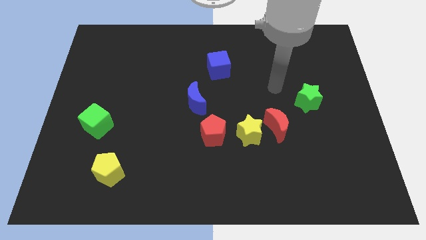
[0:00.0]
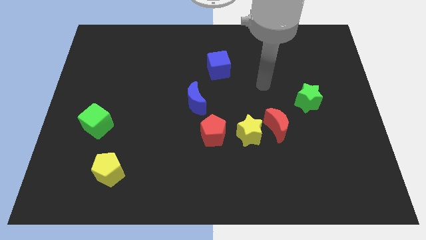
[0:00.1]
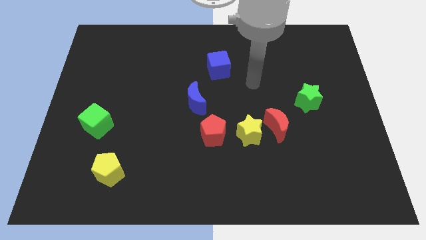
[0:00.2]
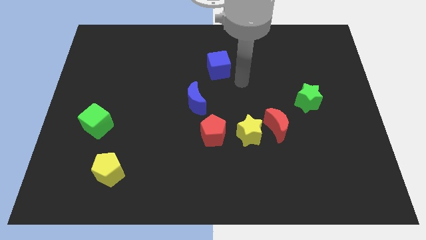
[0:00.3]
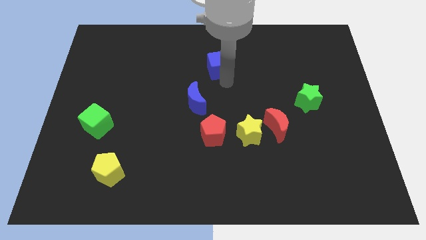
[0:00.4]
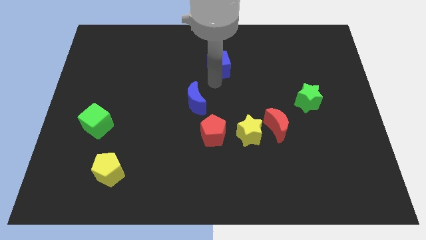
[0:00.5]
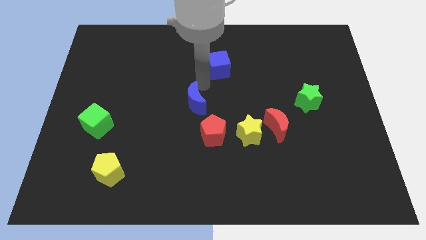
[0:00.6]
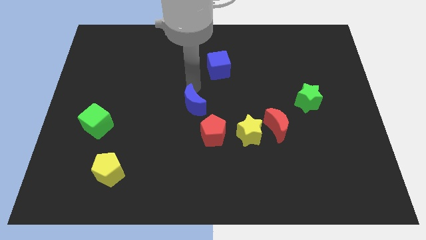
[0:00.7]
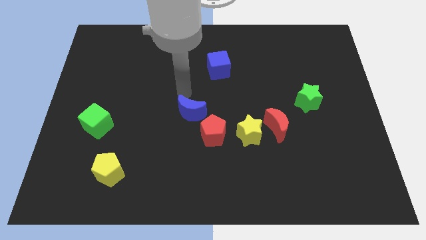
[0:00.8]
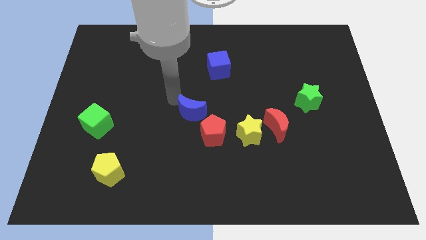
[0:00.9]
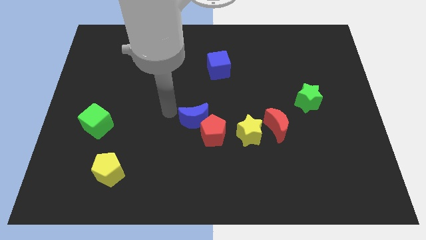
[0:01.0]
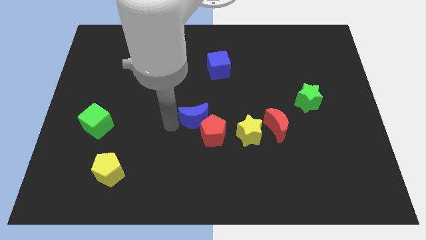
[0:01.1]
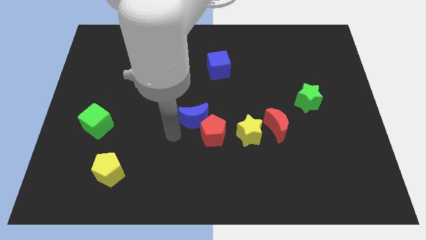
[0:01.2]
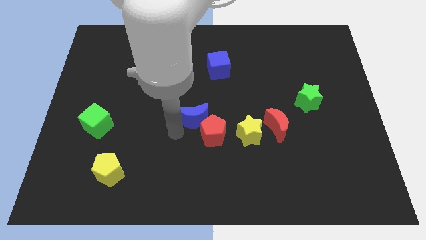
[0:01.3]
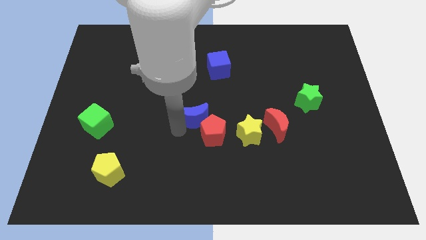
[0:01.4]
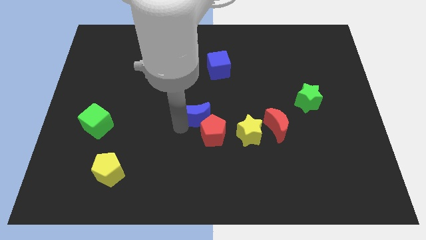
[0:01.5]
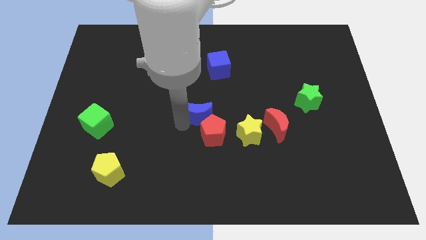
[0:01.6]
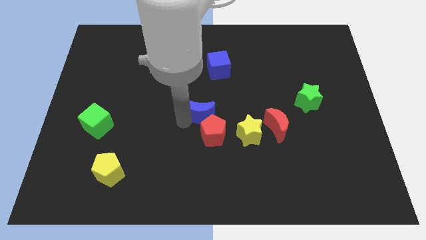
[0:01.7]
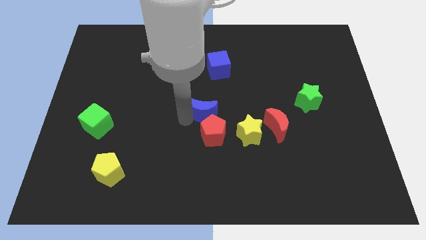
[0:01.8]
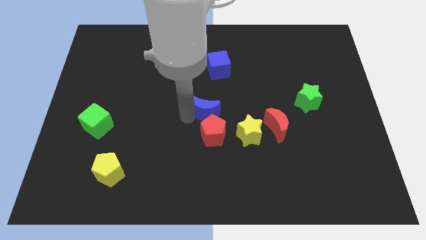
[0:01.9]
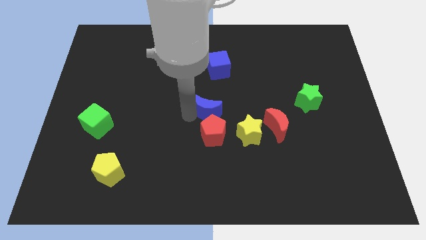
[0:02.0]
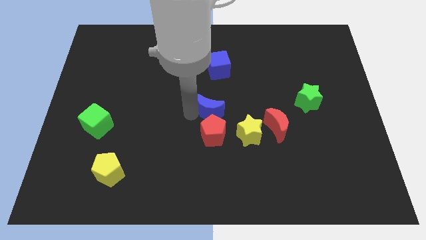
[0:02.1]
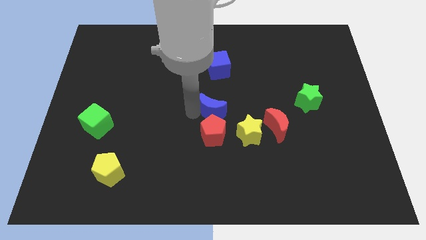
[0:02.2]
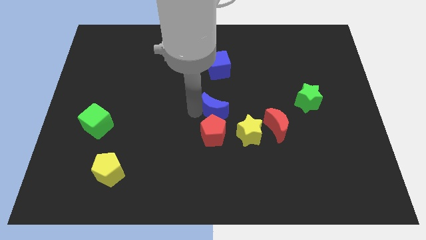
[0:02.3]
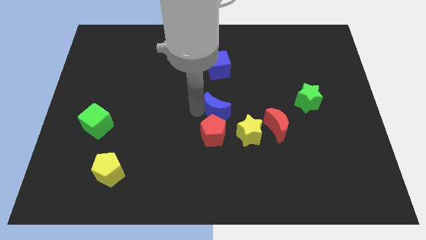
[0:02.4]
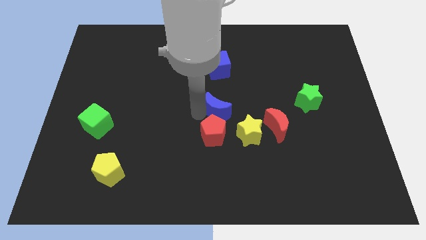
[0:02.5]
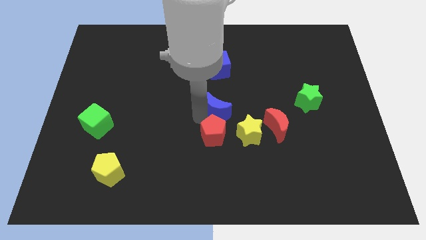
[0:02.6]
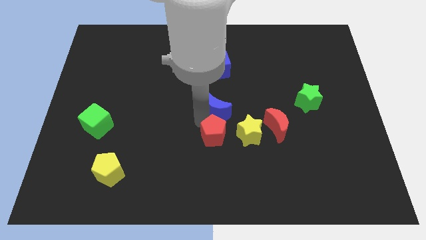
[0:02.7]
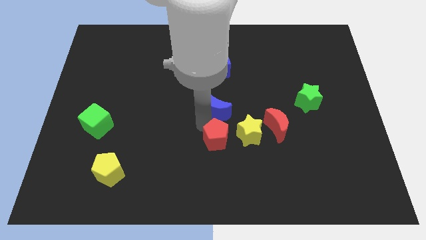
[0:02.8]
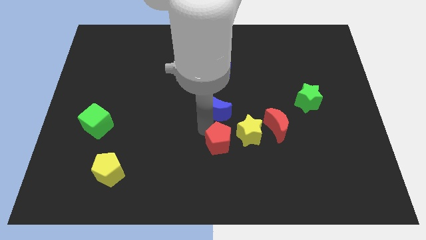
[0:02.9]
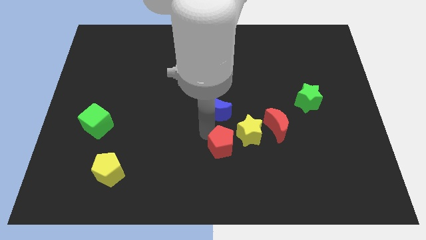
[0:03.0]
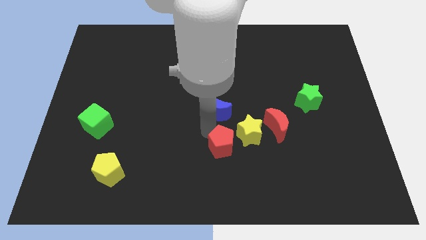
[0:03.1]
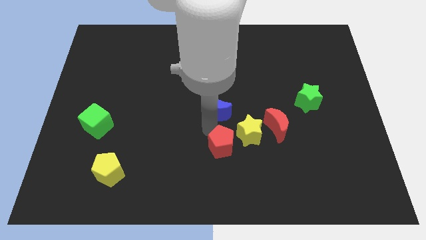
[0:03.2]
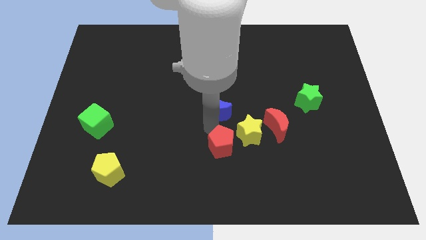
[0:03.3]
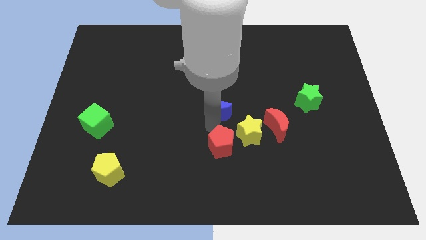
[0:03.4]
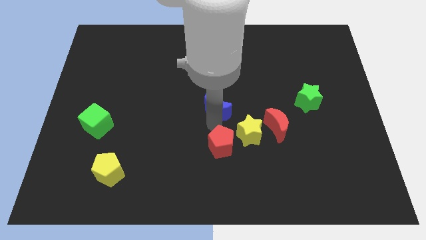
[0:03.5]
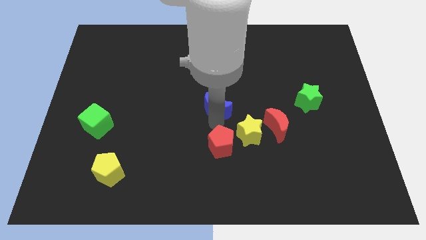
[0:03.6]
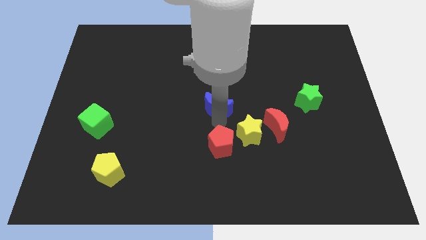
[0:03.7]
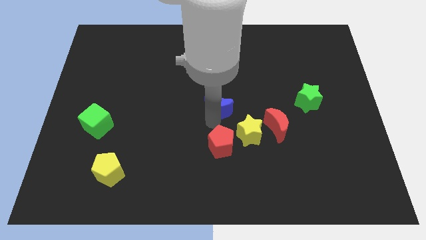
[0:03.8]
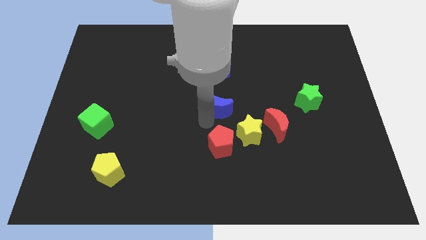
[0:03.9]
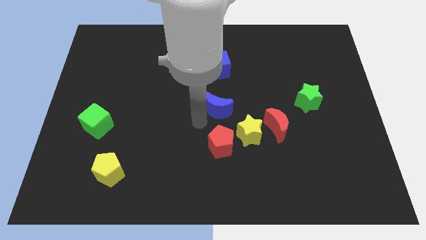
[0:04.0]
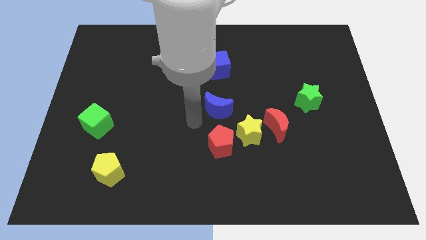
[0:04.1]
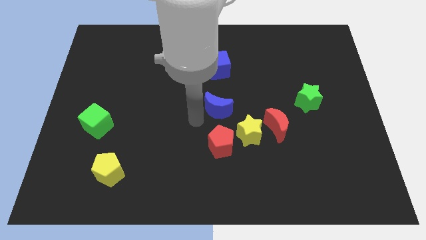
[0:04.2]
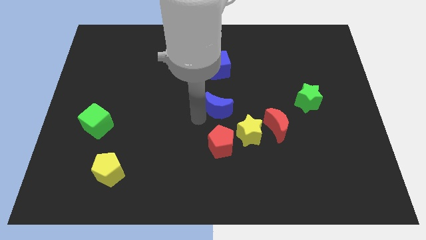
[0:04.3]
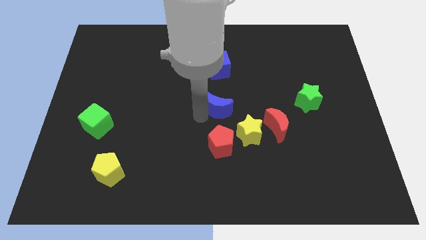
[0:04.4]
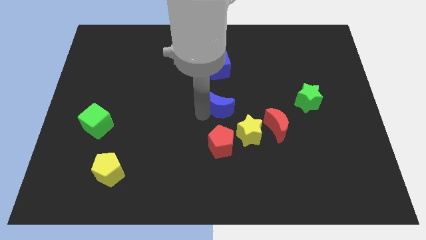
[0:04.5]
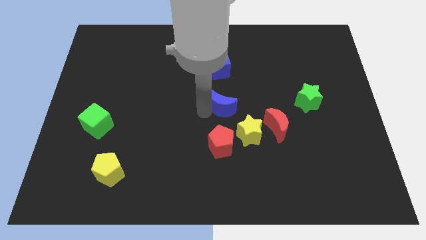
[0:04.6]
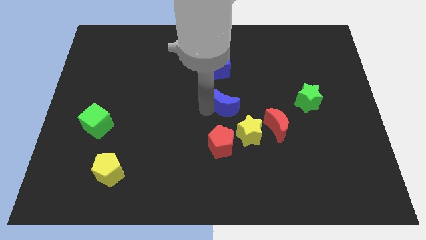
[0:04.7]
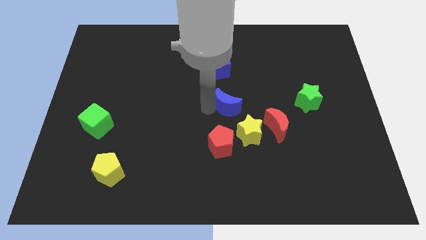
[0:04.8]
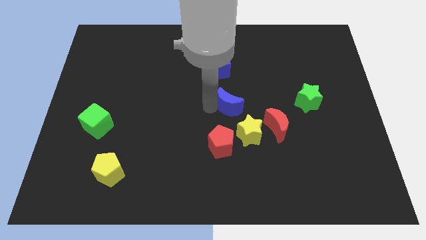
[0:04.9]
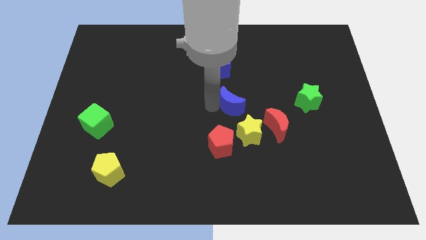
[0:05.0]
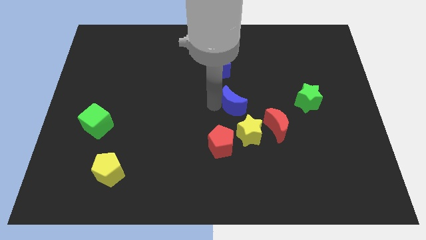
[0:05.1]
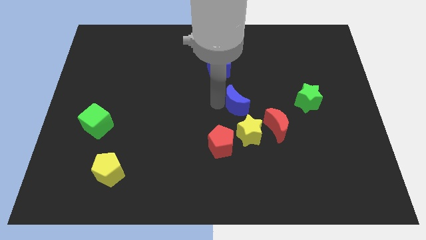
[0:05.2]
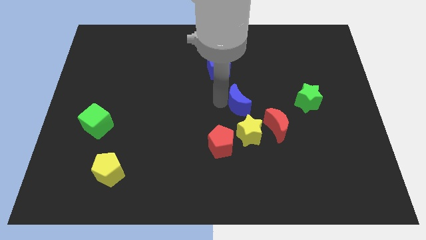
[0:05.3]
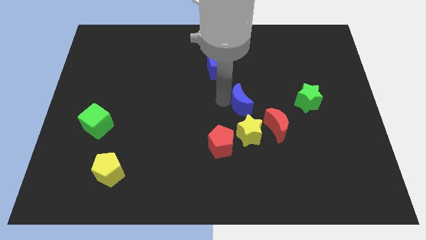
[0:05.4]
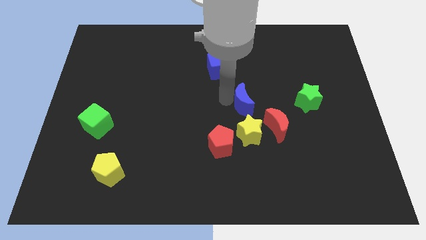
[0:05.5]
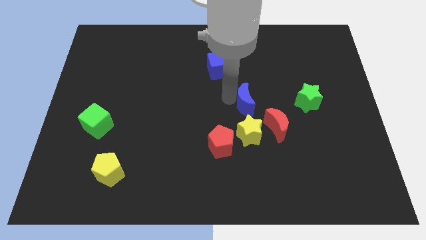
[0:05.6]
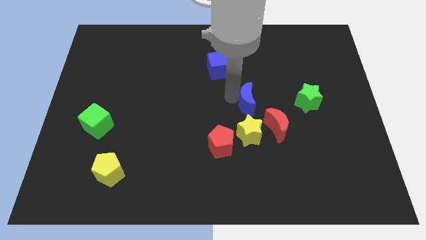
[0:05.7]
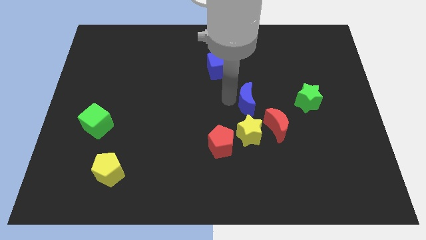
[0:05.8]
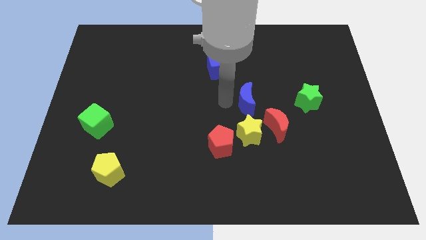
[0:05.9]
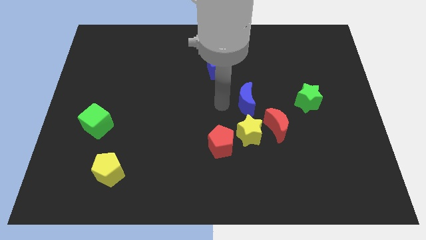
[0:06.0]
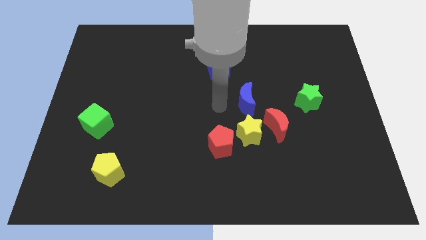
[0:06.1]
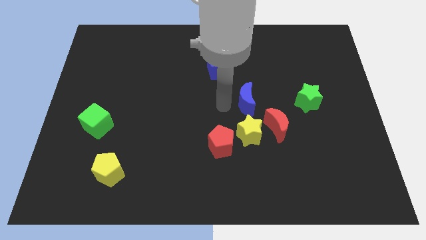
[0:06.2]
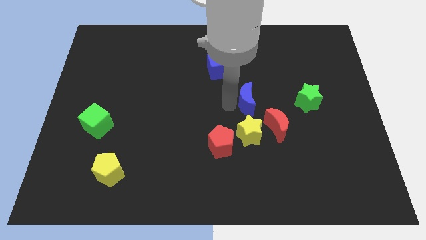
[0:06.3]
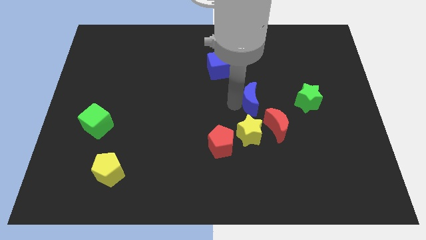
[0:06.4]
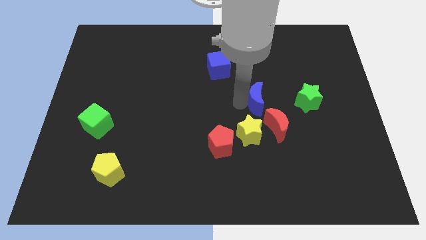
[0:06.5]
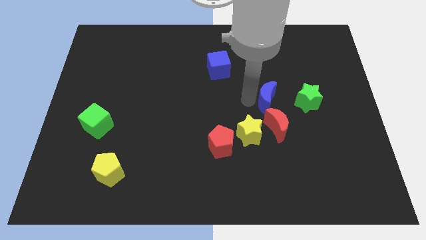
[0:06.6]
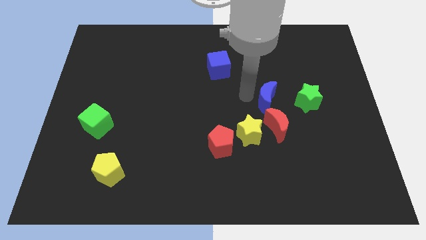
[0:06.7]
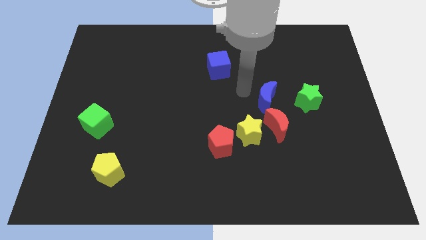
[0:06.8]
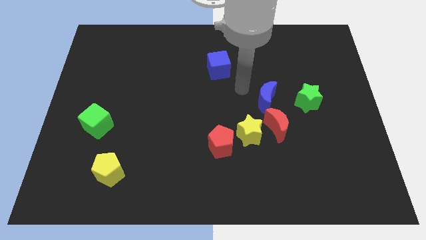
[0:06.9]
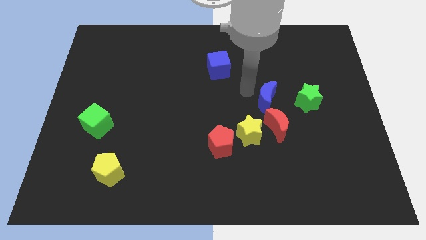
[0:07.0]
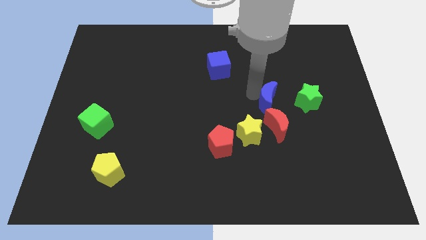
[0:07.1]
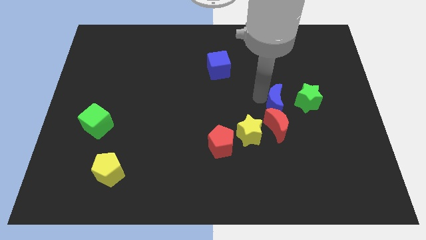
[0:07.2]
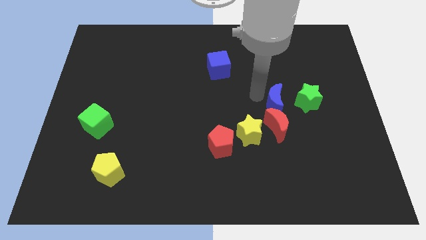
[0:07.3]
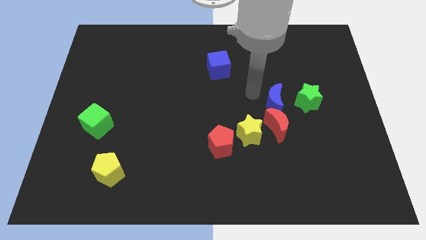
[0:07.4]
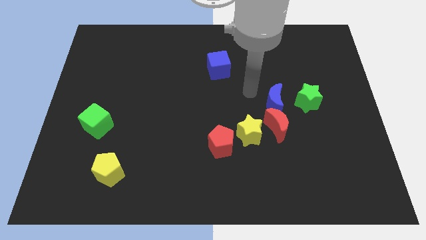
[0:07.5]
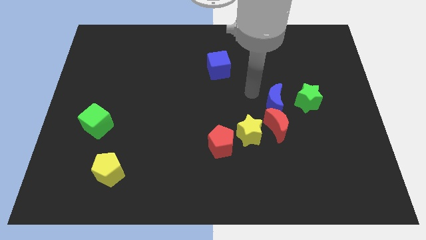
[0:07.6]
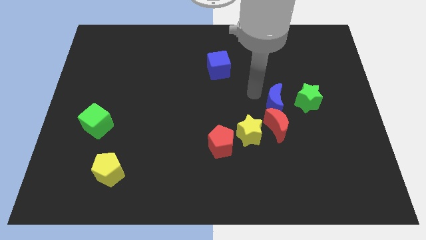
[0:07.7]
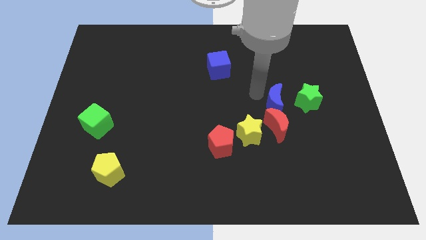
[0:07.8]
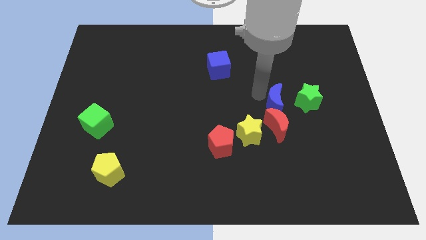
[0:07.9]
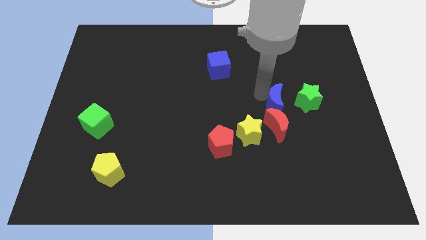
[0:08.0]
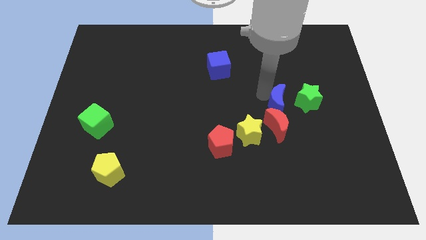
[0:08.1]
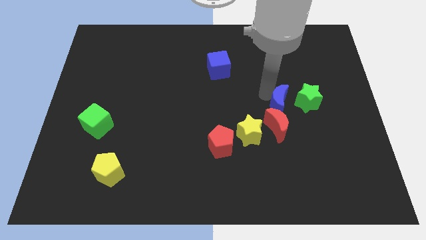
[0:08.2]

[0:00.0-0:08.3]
push the blue moon right
